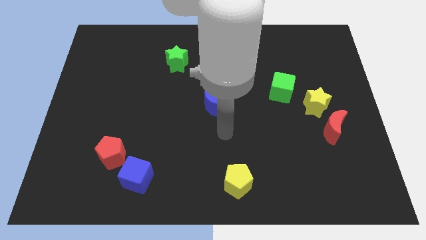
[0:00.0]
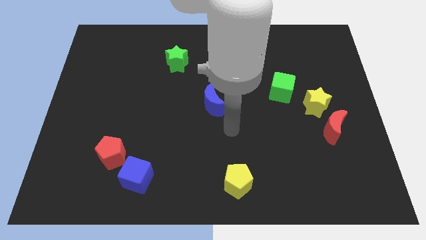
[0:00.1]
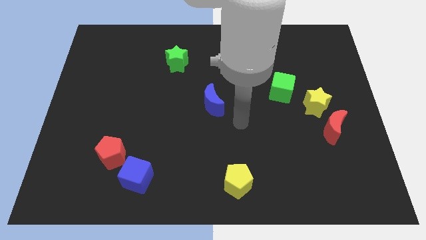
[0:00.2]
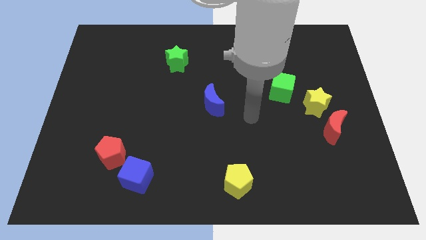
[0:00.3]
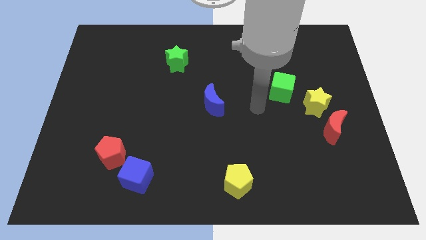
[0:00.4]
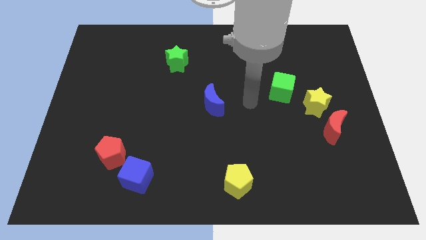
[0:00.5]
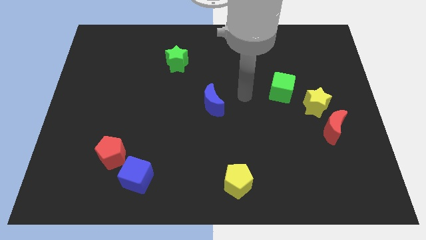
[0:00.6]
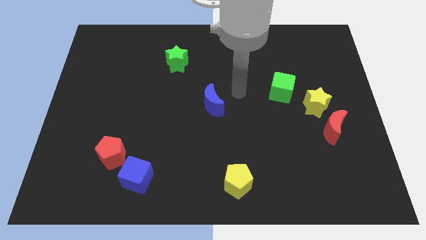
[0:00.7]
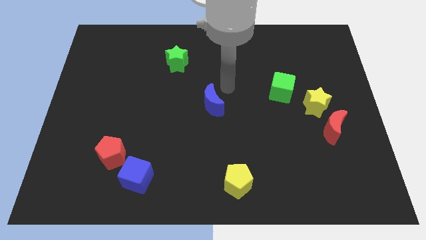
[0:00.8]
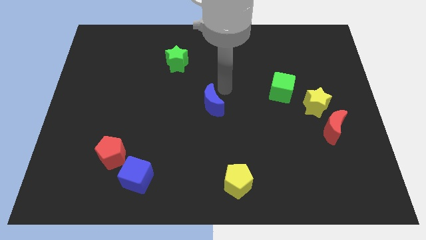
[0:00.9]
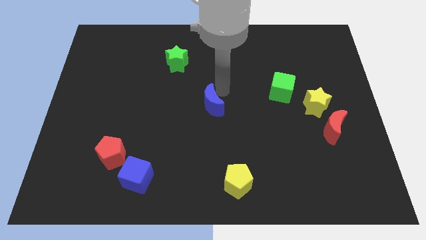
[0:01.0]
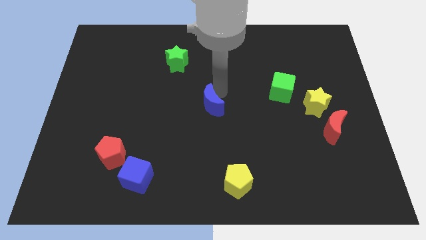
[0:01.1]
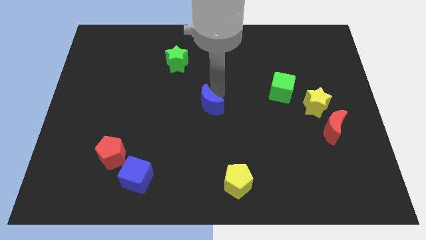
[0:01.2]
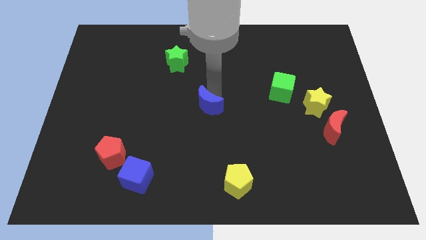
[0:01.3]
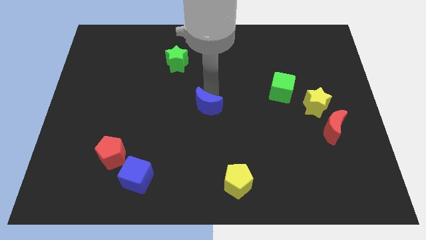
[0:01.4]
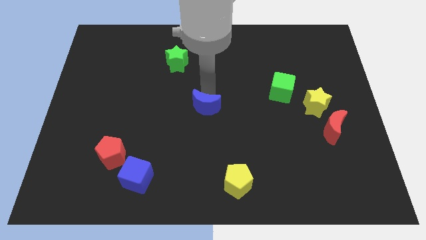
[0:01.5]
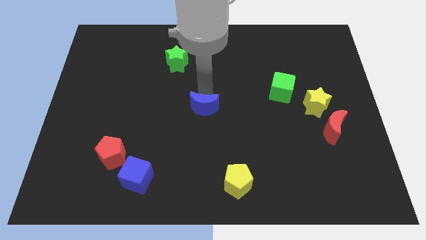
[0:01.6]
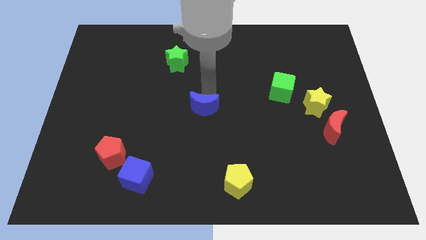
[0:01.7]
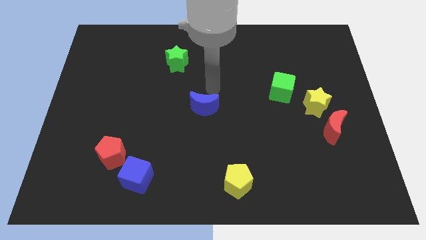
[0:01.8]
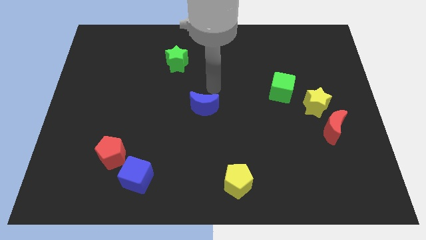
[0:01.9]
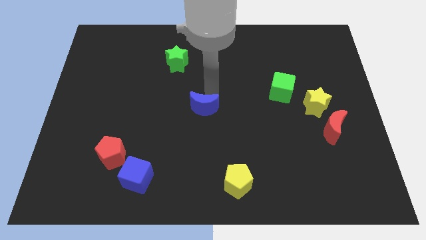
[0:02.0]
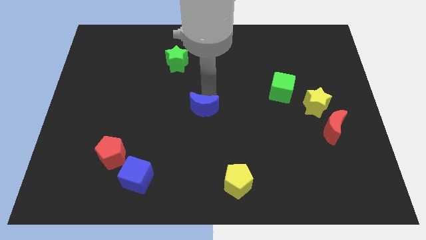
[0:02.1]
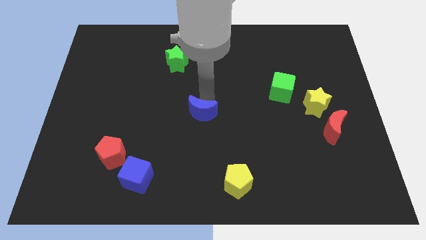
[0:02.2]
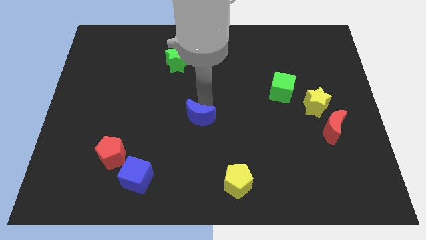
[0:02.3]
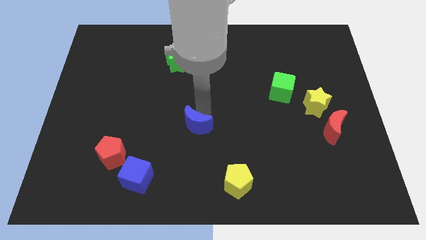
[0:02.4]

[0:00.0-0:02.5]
move the blue moon somewhat diagonally downwards and left

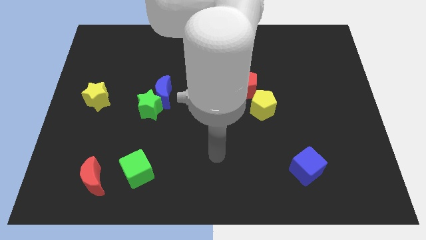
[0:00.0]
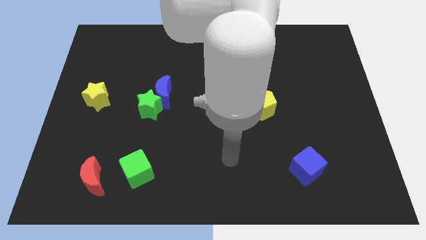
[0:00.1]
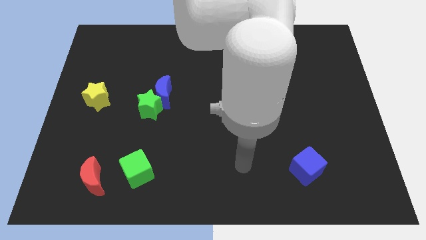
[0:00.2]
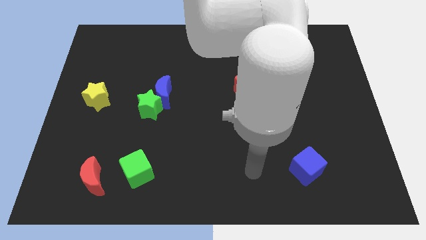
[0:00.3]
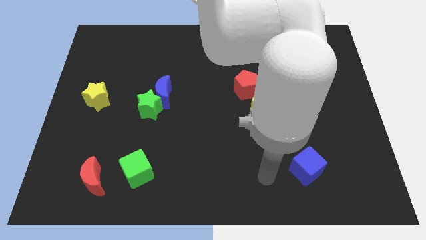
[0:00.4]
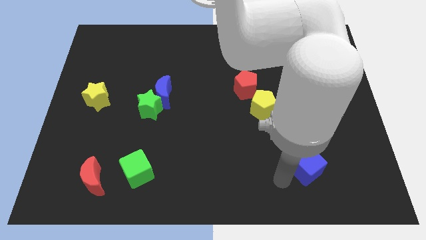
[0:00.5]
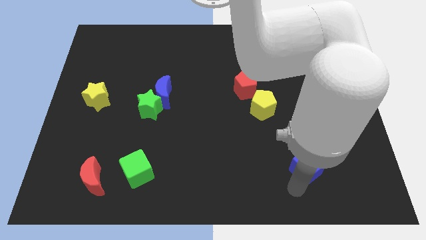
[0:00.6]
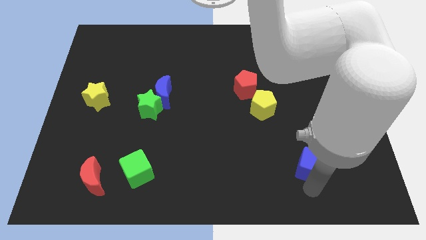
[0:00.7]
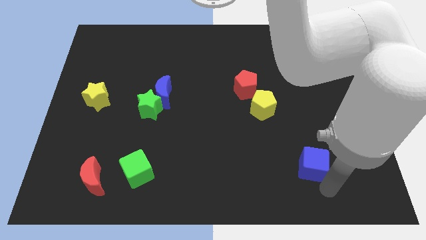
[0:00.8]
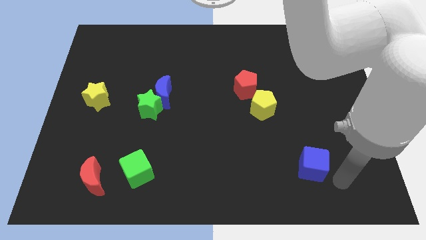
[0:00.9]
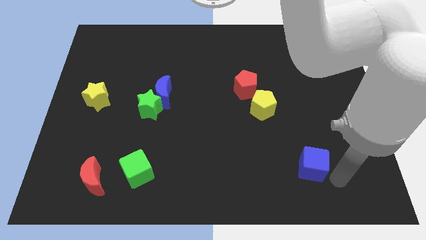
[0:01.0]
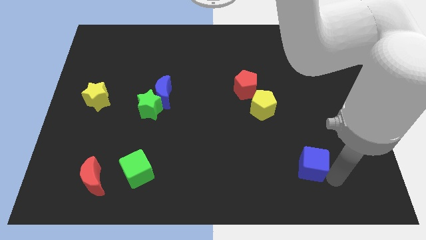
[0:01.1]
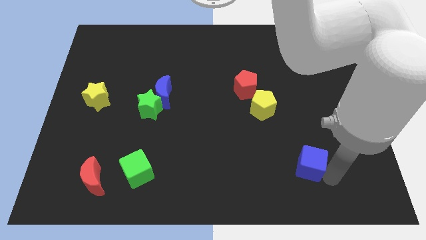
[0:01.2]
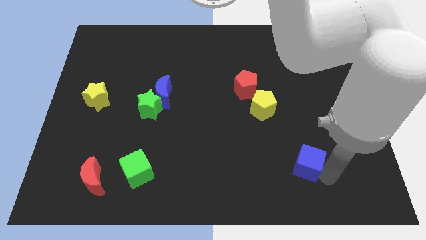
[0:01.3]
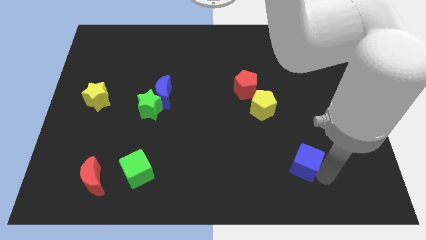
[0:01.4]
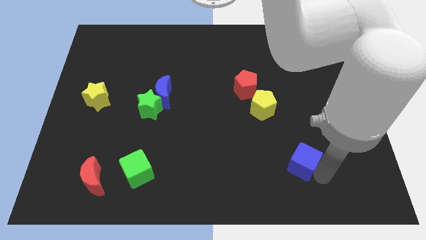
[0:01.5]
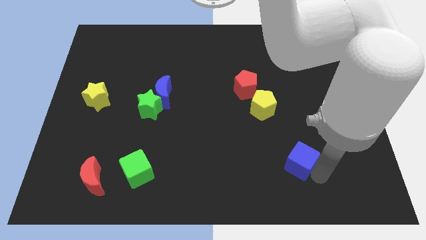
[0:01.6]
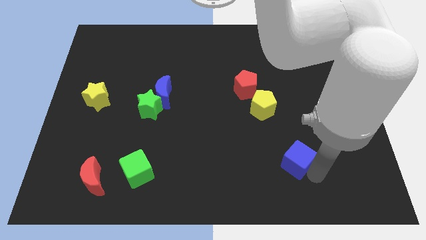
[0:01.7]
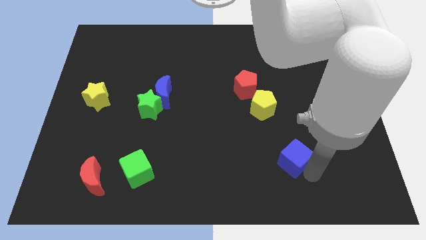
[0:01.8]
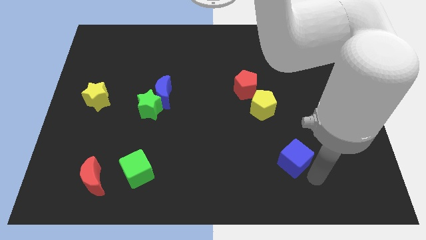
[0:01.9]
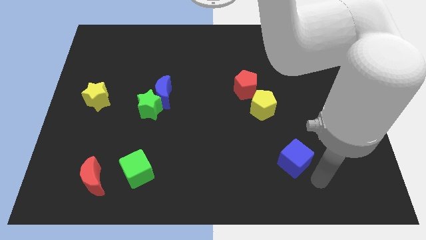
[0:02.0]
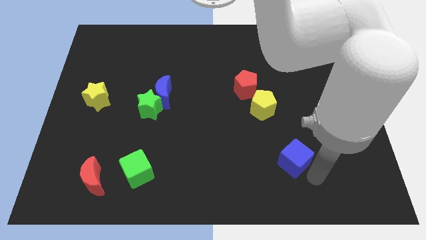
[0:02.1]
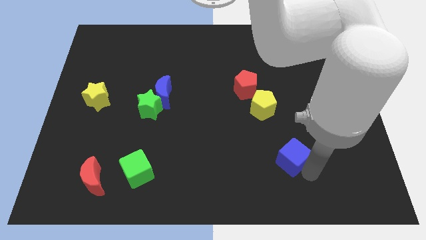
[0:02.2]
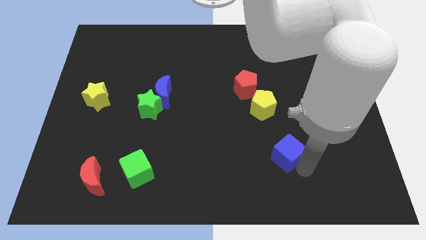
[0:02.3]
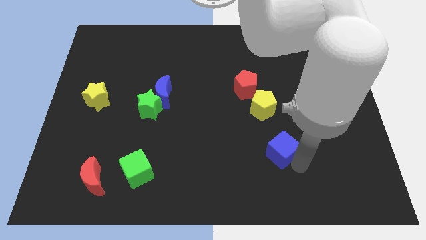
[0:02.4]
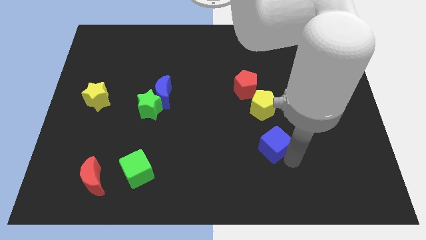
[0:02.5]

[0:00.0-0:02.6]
slide the blue cube slightly up and to the left

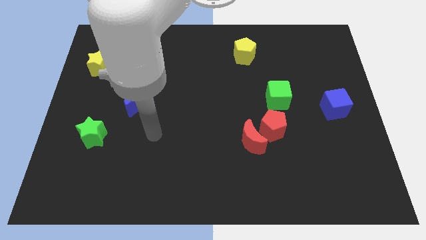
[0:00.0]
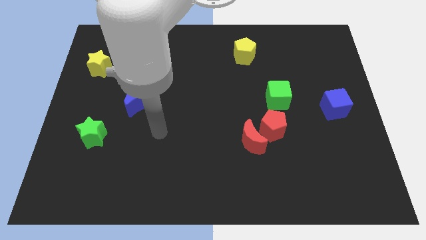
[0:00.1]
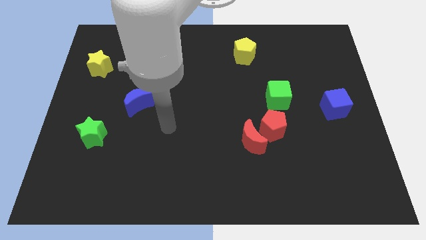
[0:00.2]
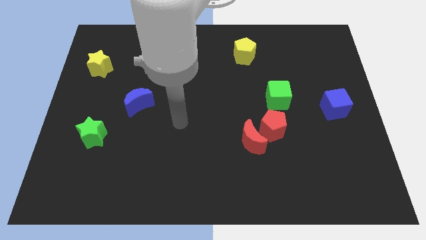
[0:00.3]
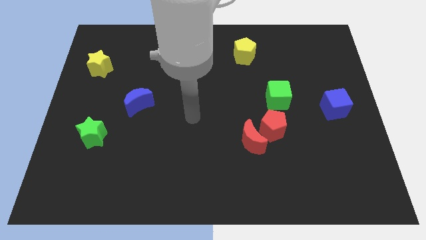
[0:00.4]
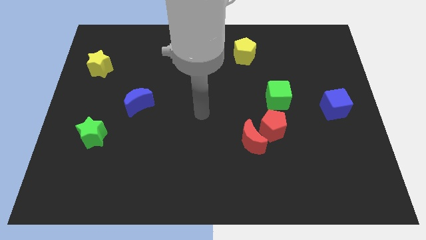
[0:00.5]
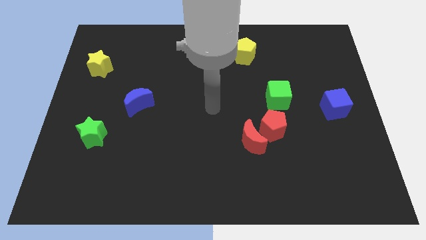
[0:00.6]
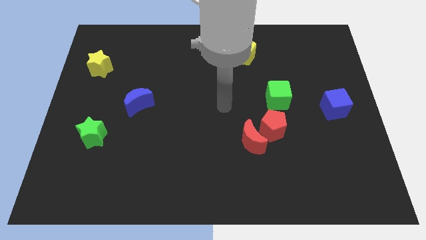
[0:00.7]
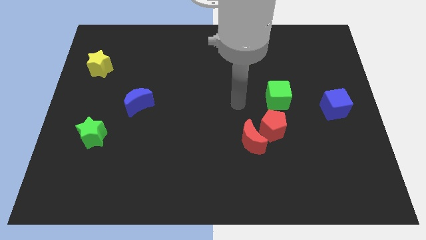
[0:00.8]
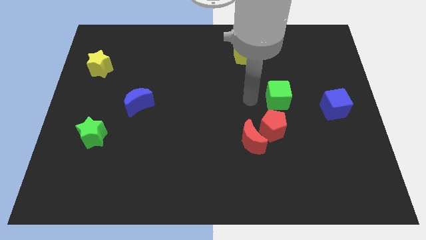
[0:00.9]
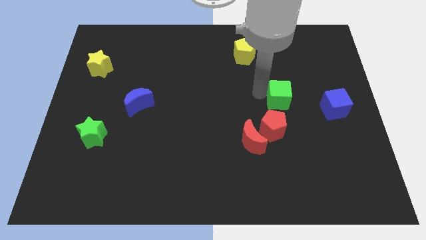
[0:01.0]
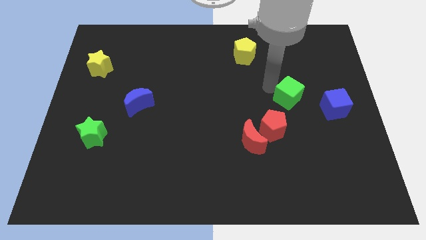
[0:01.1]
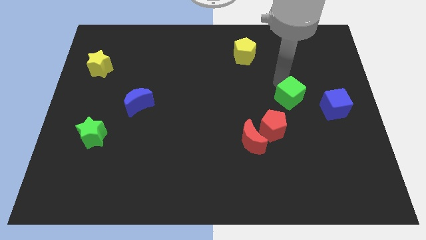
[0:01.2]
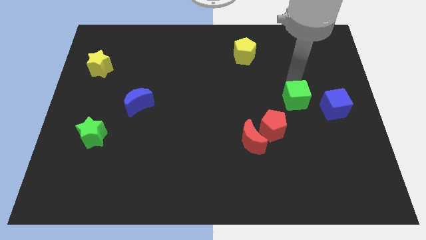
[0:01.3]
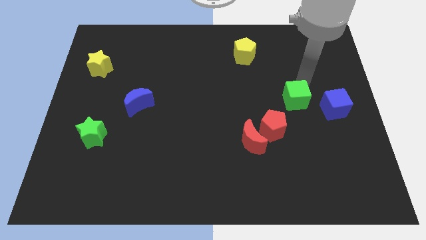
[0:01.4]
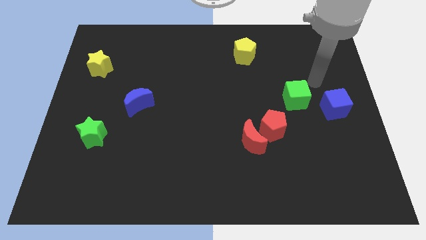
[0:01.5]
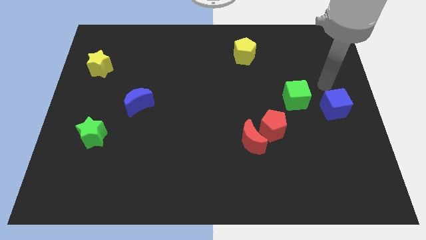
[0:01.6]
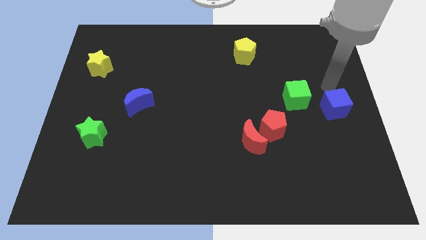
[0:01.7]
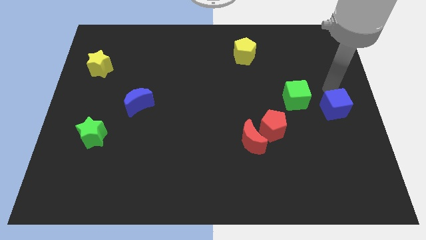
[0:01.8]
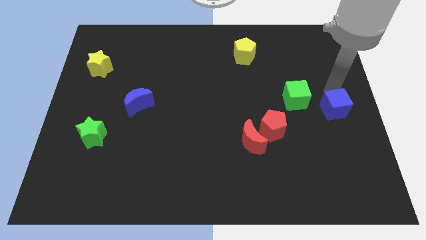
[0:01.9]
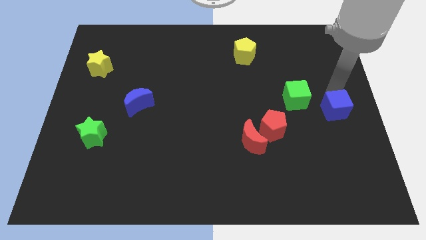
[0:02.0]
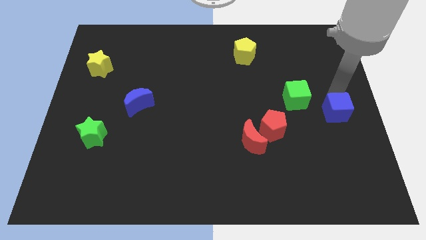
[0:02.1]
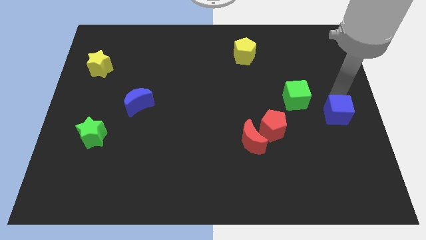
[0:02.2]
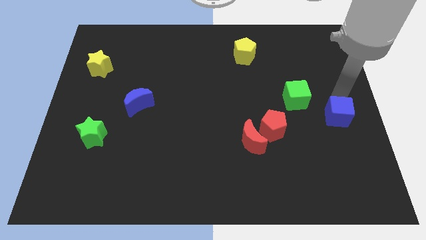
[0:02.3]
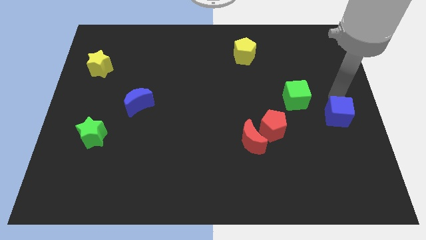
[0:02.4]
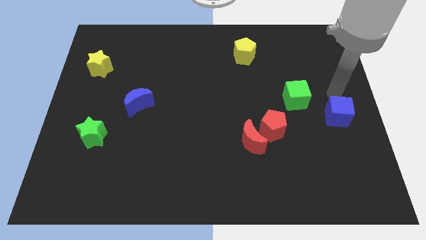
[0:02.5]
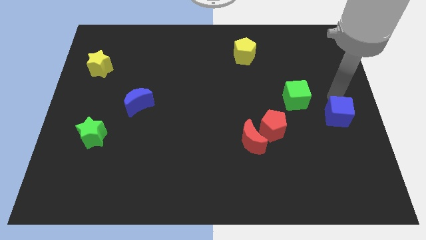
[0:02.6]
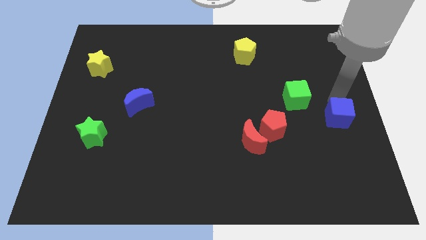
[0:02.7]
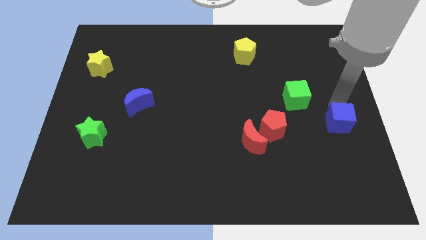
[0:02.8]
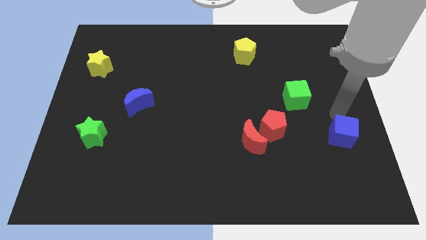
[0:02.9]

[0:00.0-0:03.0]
slide the blue cube somewhat down

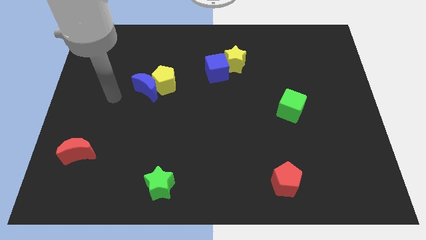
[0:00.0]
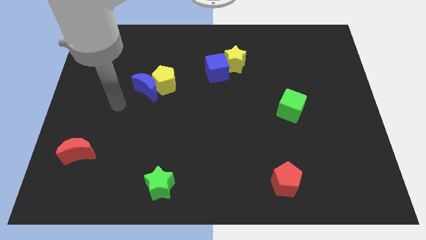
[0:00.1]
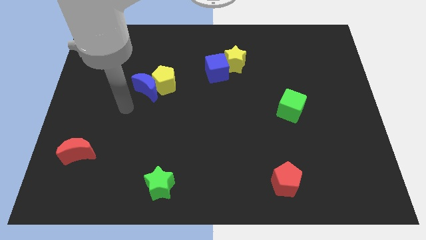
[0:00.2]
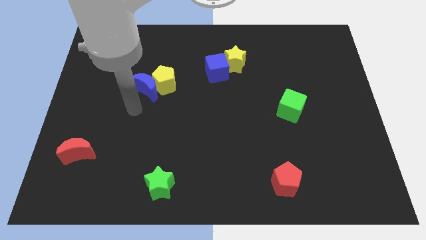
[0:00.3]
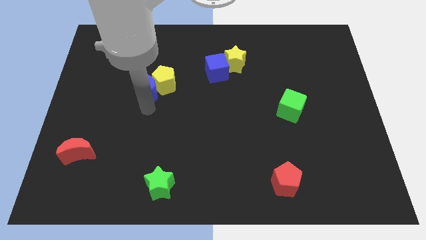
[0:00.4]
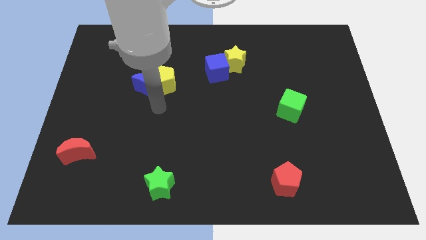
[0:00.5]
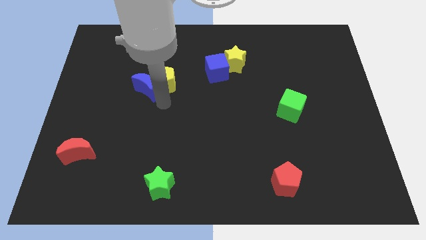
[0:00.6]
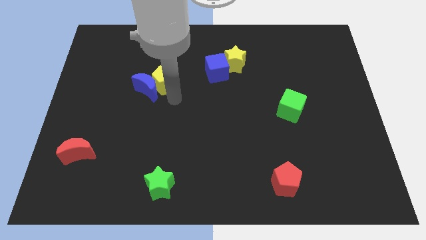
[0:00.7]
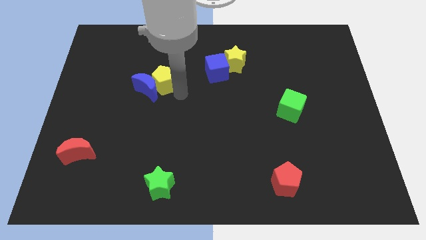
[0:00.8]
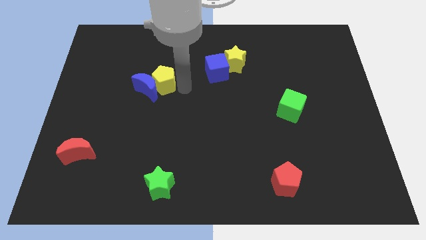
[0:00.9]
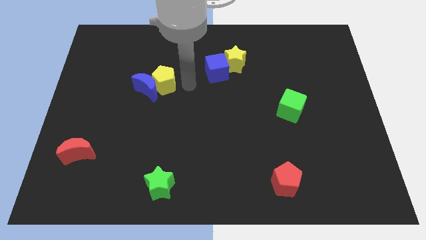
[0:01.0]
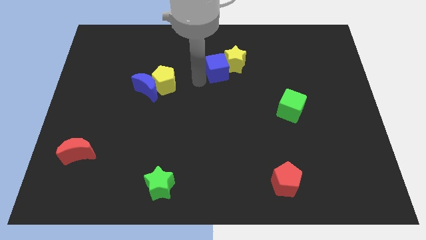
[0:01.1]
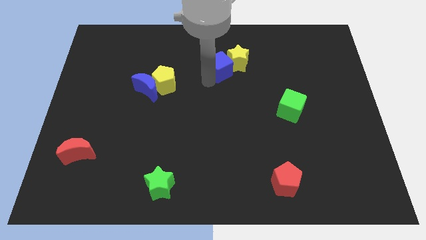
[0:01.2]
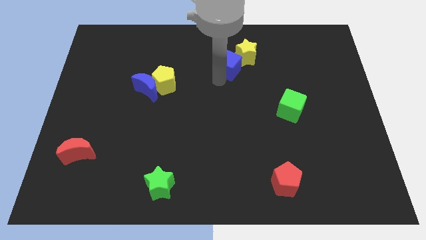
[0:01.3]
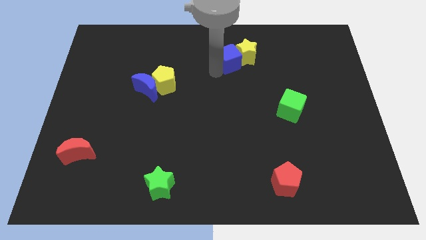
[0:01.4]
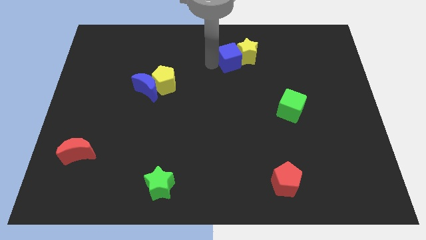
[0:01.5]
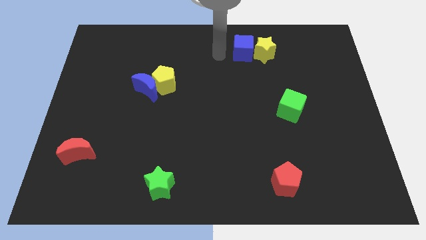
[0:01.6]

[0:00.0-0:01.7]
move the yellow star a little bit to the right
